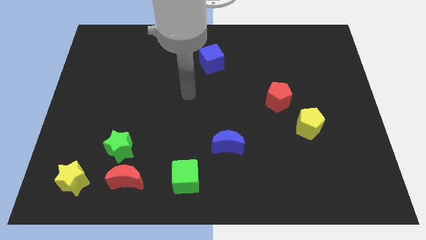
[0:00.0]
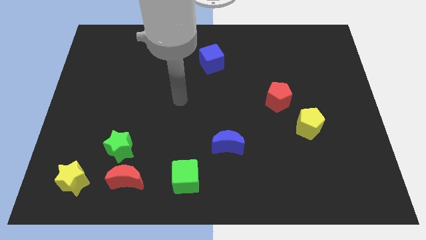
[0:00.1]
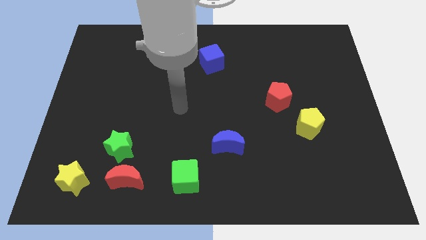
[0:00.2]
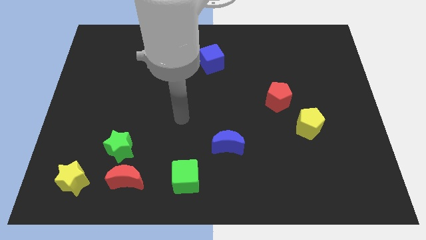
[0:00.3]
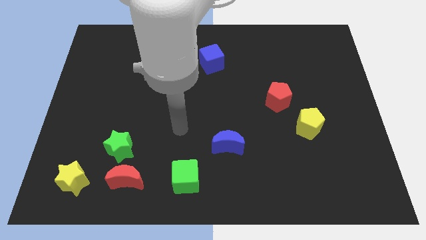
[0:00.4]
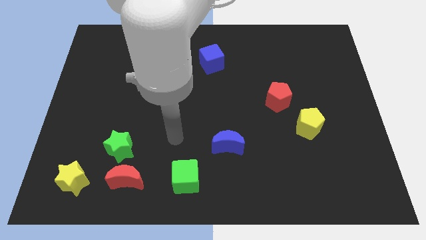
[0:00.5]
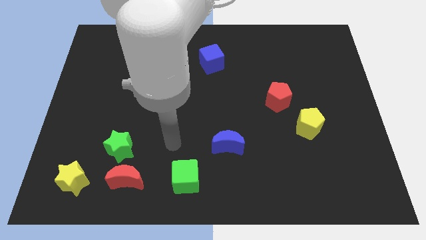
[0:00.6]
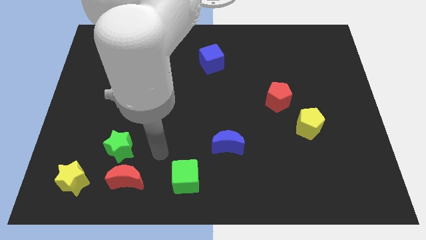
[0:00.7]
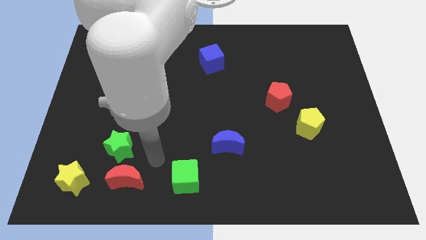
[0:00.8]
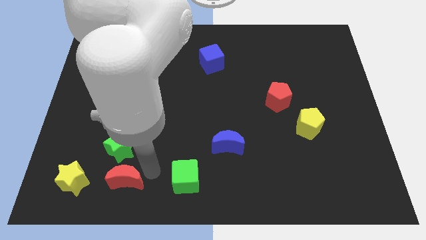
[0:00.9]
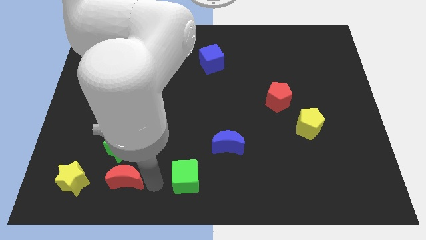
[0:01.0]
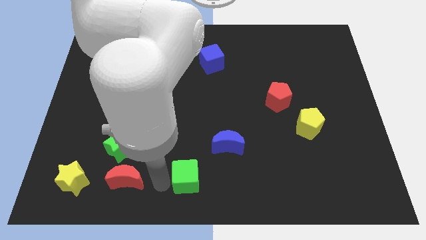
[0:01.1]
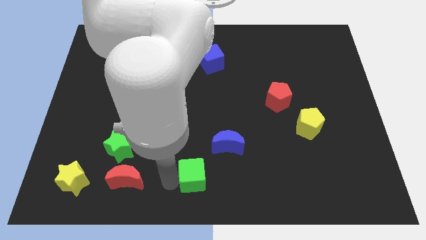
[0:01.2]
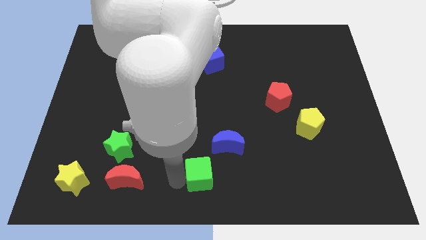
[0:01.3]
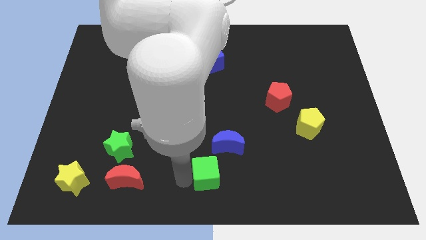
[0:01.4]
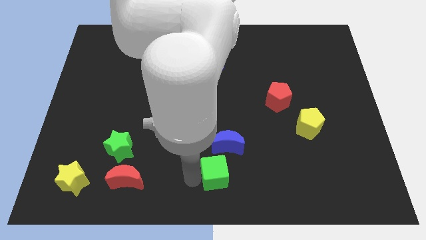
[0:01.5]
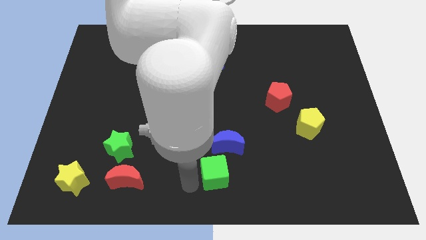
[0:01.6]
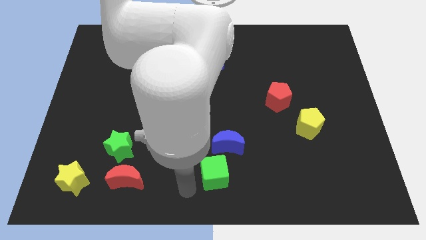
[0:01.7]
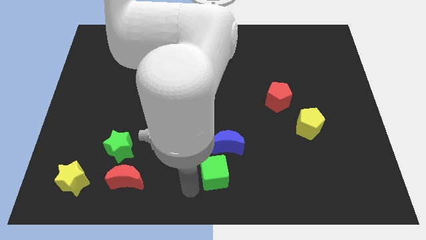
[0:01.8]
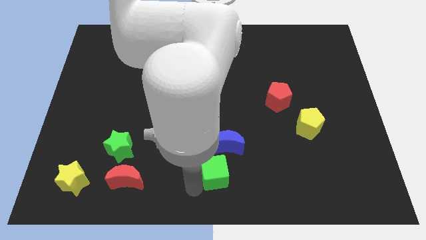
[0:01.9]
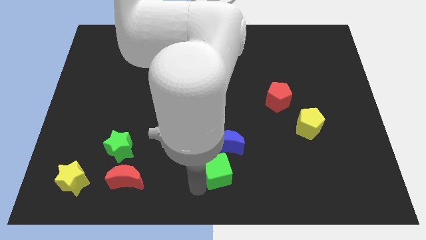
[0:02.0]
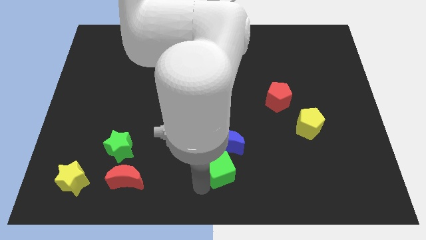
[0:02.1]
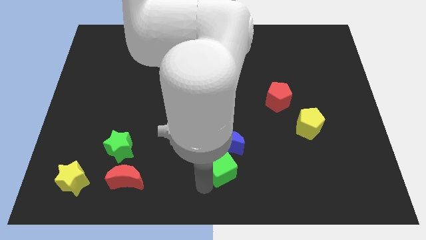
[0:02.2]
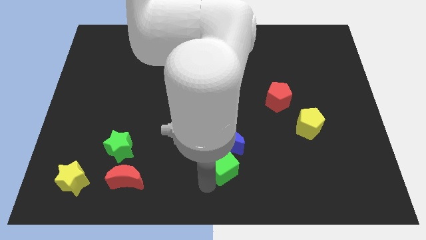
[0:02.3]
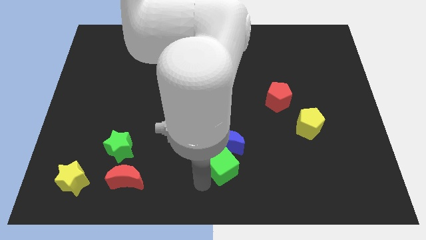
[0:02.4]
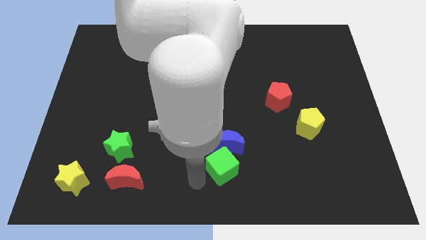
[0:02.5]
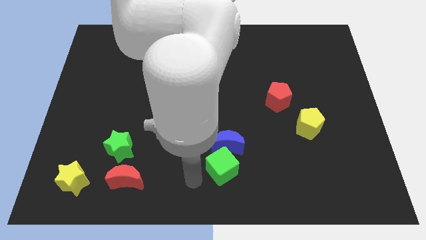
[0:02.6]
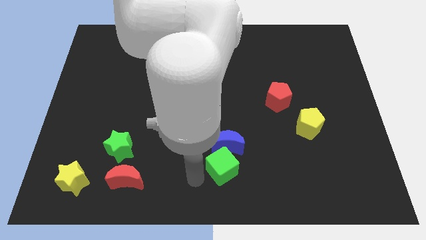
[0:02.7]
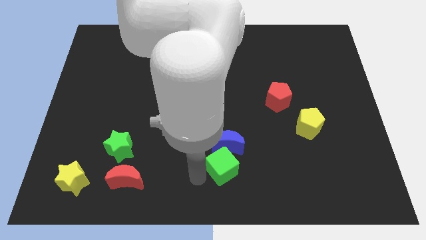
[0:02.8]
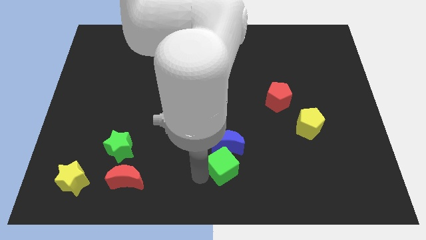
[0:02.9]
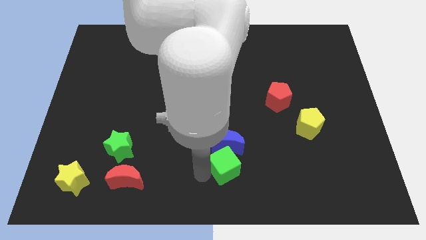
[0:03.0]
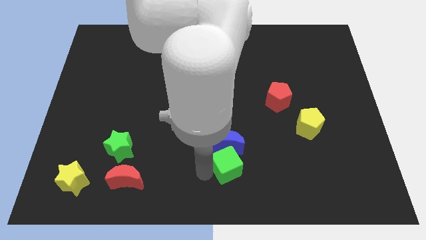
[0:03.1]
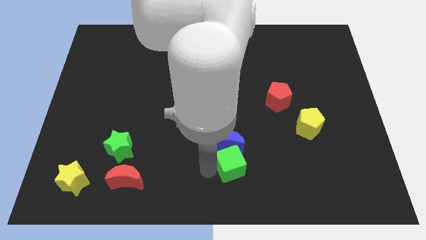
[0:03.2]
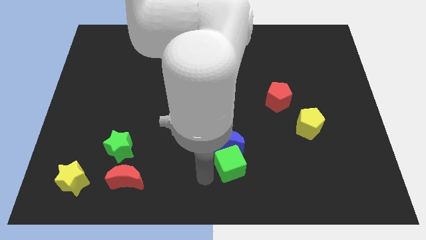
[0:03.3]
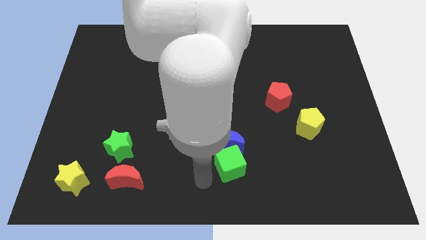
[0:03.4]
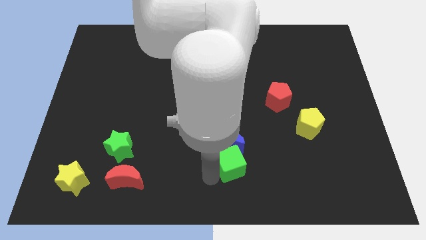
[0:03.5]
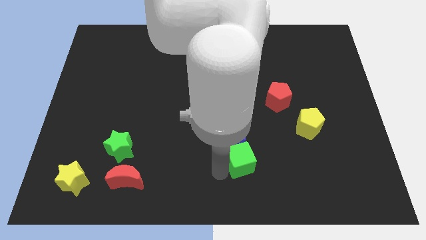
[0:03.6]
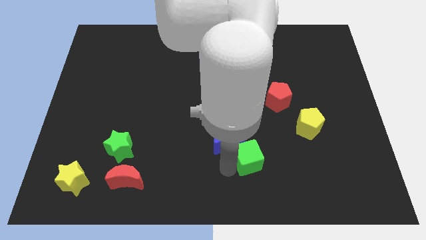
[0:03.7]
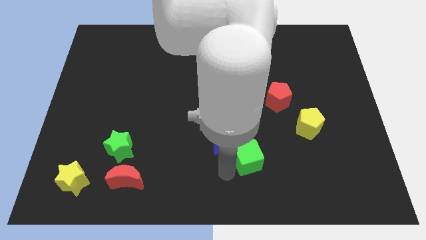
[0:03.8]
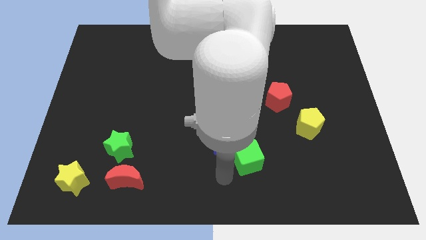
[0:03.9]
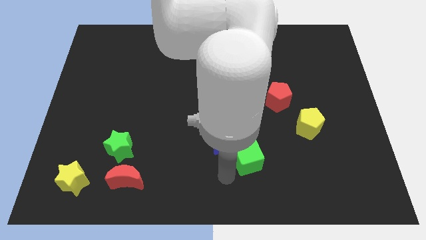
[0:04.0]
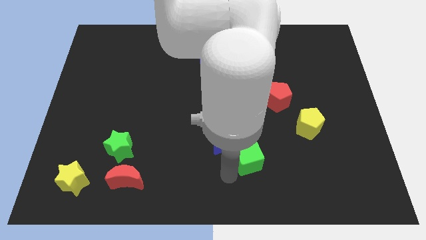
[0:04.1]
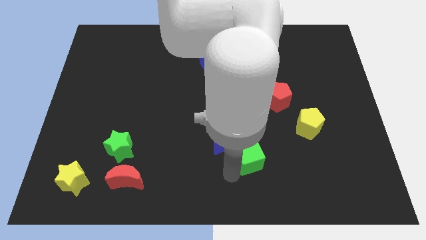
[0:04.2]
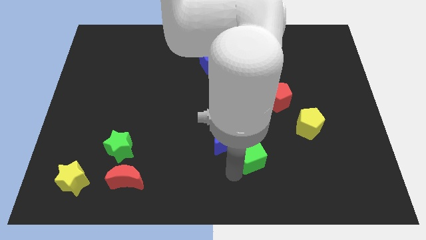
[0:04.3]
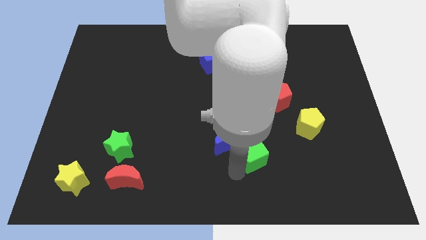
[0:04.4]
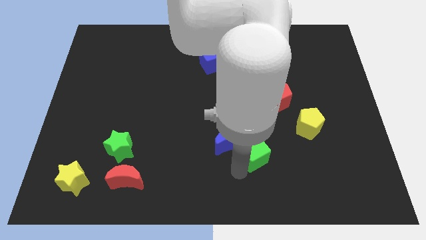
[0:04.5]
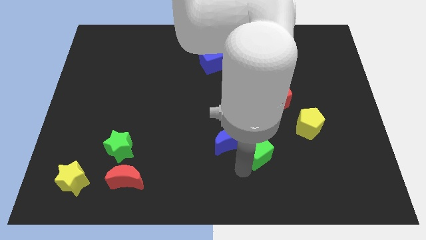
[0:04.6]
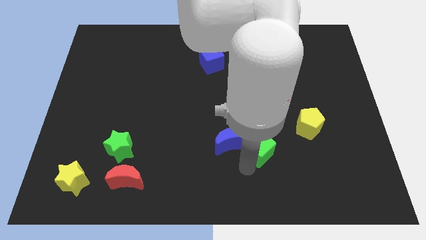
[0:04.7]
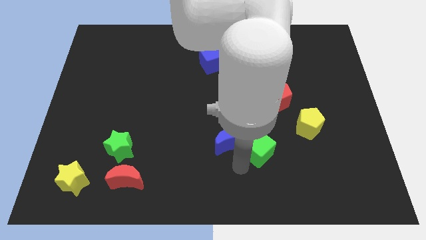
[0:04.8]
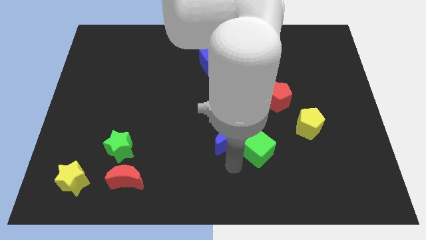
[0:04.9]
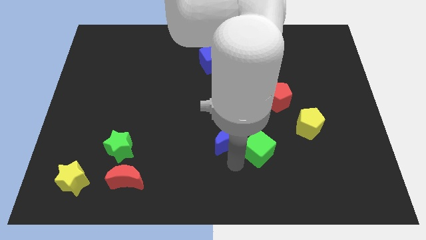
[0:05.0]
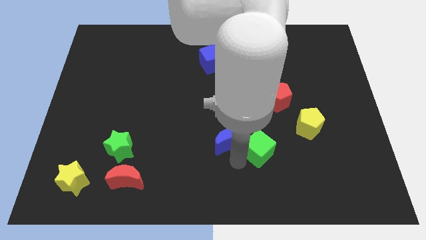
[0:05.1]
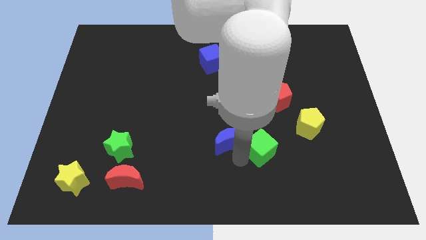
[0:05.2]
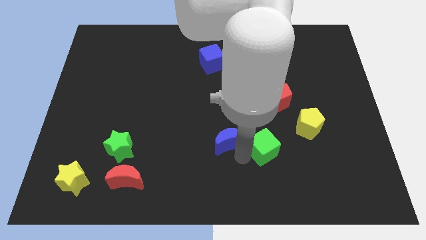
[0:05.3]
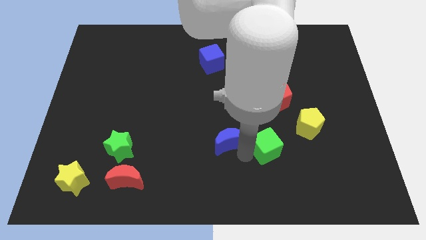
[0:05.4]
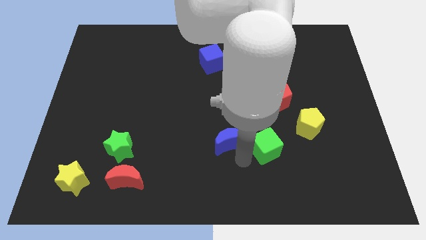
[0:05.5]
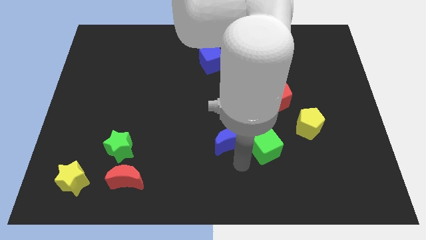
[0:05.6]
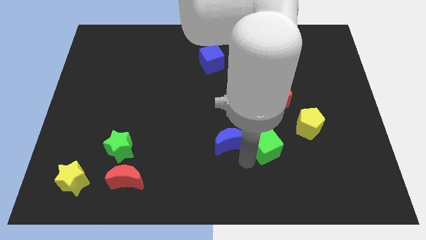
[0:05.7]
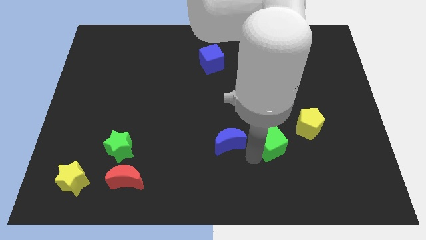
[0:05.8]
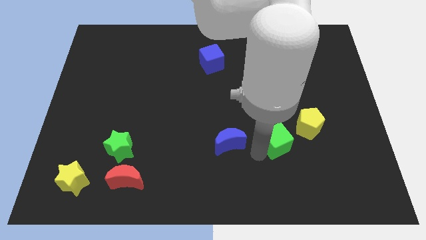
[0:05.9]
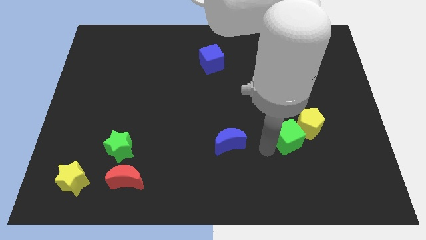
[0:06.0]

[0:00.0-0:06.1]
move the green cube to the yellow pentagon

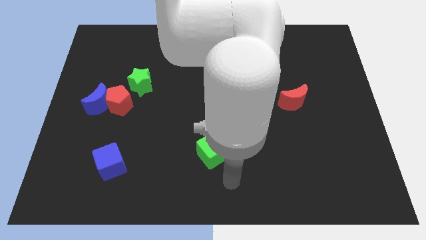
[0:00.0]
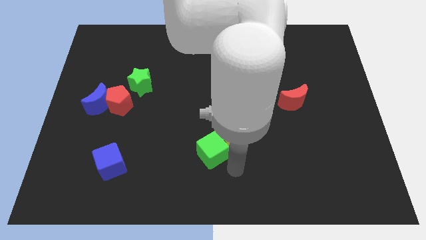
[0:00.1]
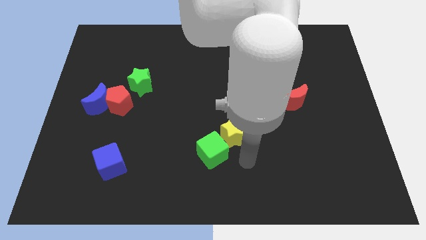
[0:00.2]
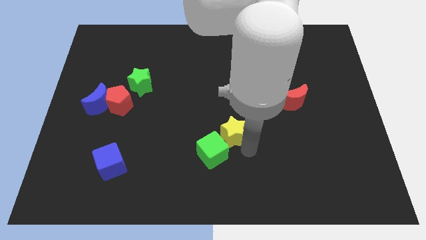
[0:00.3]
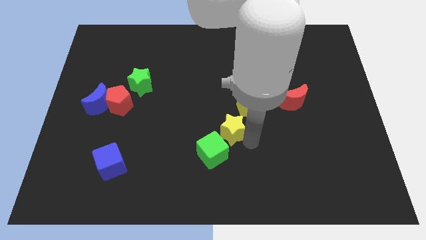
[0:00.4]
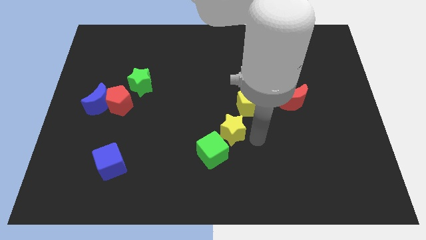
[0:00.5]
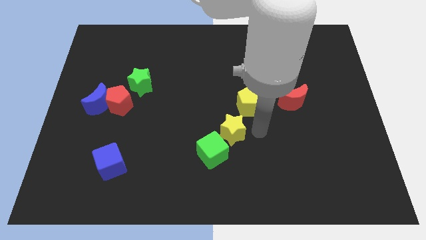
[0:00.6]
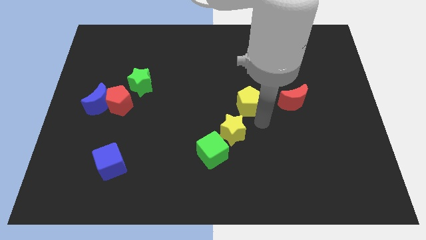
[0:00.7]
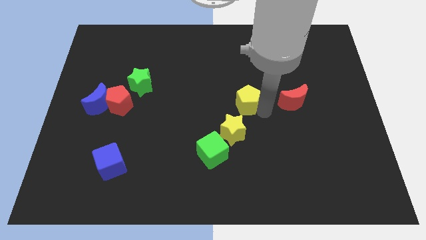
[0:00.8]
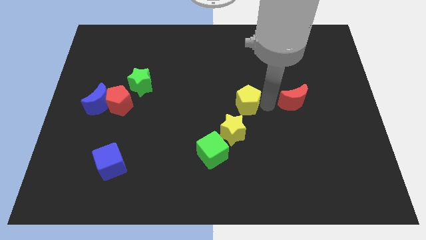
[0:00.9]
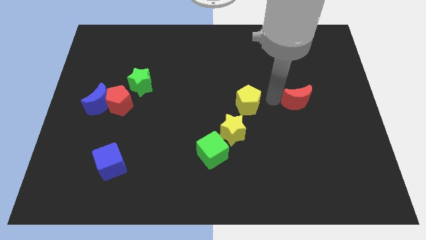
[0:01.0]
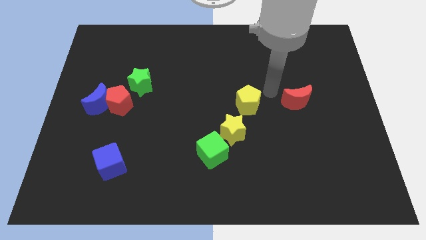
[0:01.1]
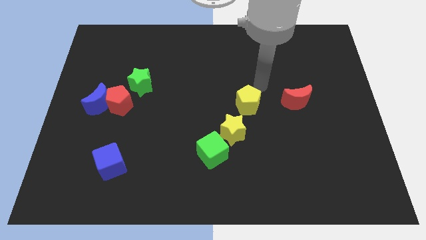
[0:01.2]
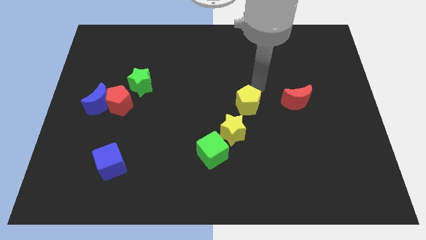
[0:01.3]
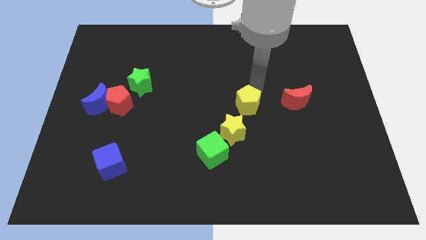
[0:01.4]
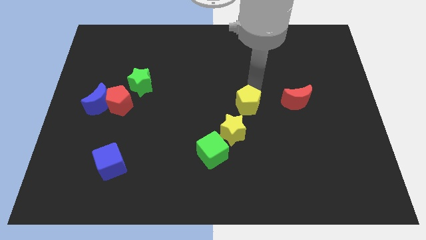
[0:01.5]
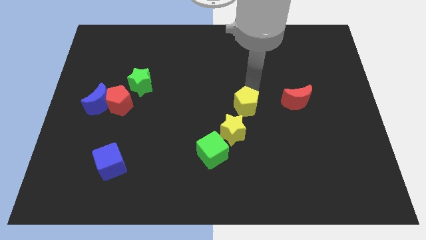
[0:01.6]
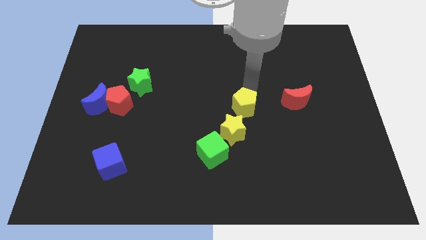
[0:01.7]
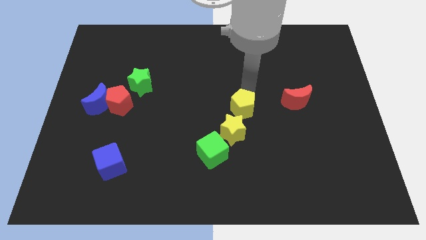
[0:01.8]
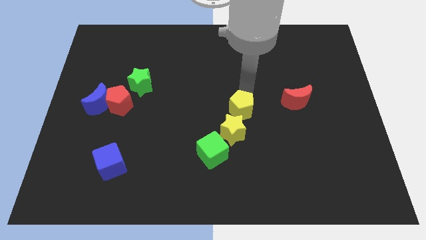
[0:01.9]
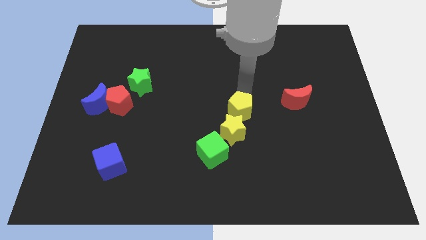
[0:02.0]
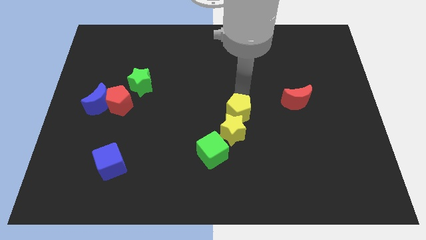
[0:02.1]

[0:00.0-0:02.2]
push the yellow pentagon to the yellow star
